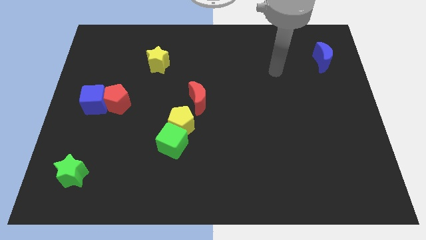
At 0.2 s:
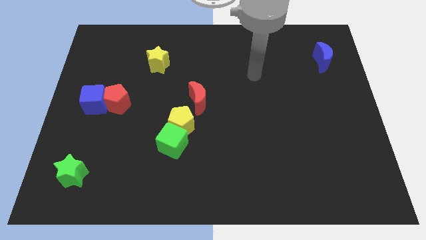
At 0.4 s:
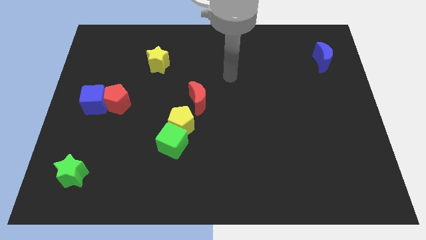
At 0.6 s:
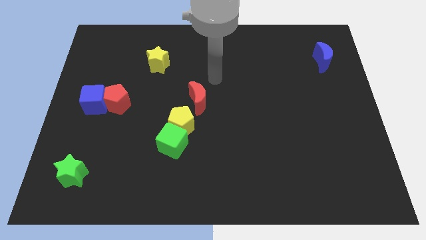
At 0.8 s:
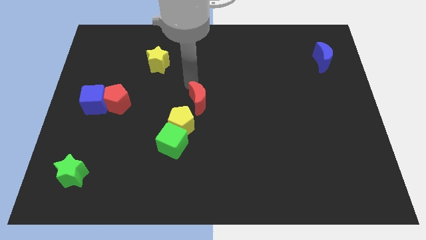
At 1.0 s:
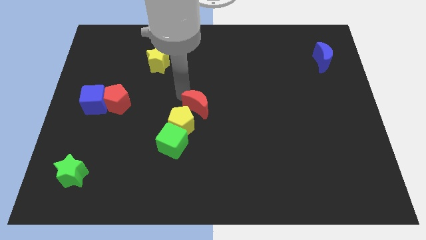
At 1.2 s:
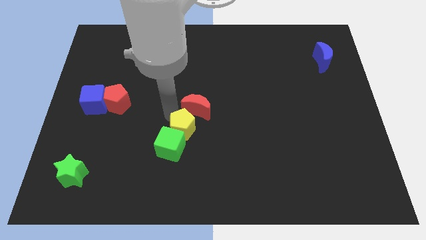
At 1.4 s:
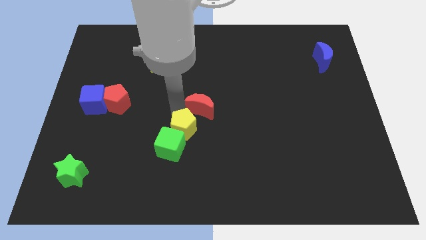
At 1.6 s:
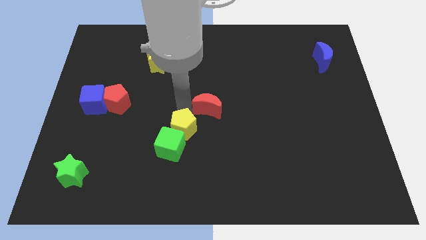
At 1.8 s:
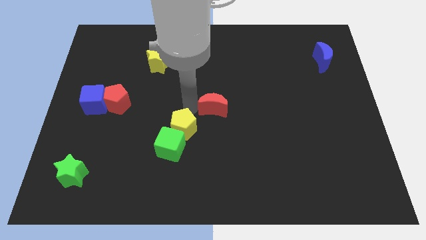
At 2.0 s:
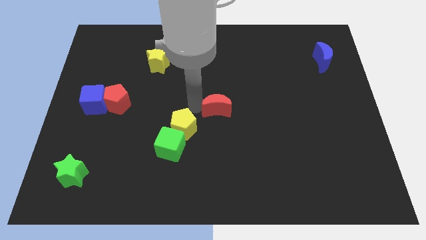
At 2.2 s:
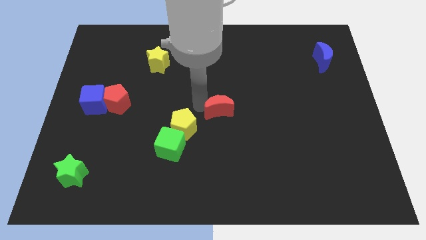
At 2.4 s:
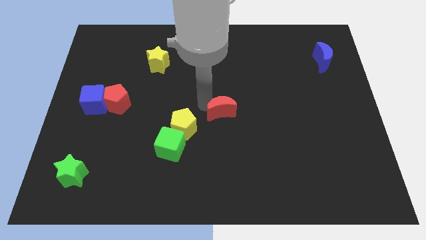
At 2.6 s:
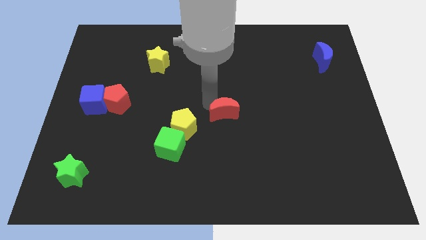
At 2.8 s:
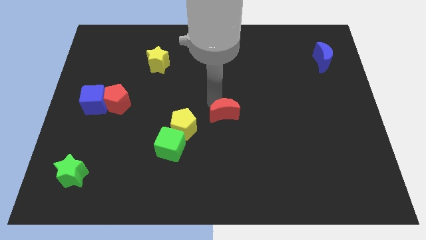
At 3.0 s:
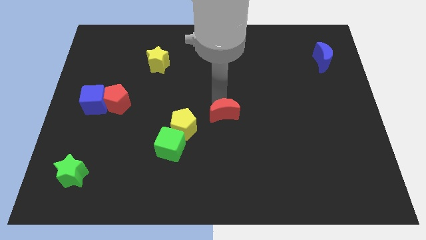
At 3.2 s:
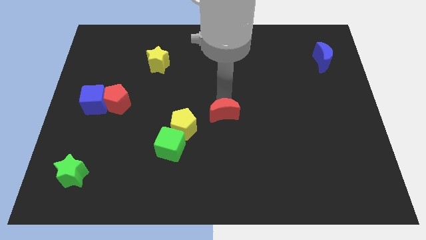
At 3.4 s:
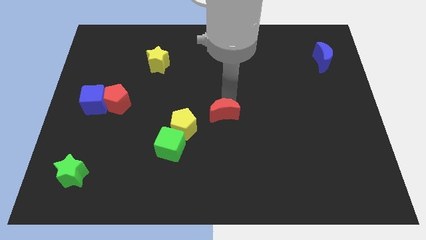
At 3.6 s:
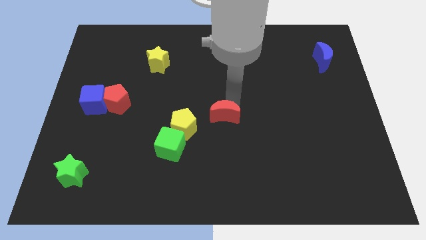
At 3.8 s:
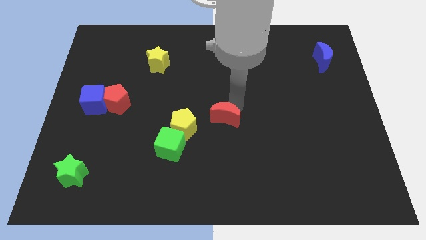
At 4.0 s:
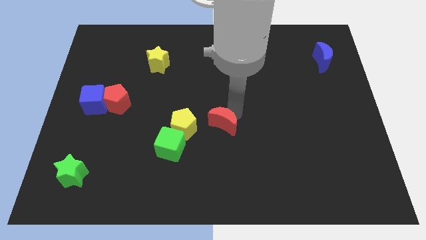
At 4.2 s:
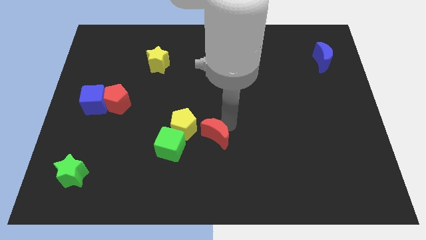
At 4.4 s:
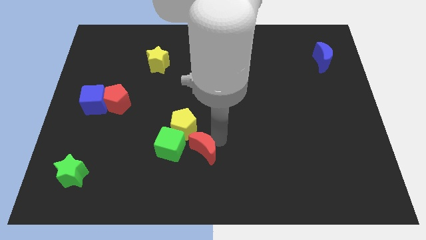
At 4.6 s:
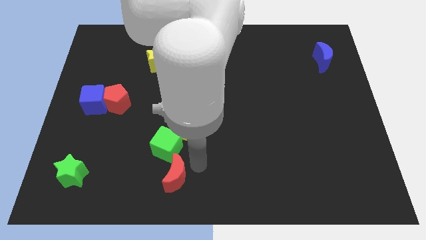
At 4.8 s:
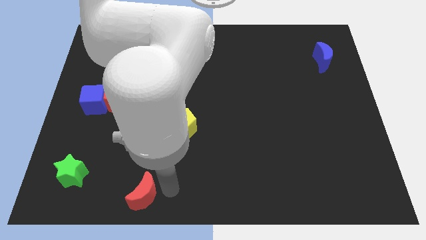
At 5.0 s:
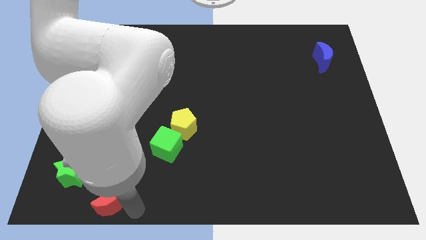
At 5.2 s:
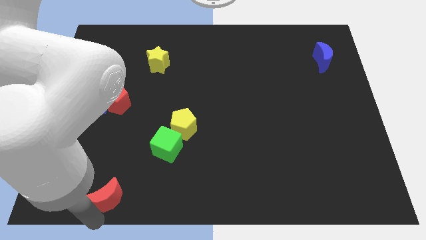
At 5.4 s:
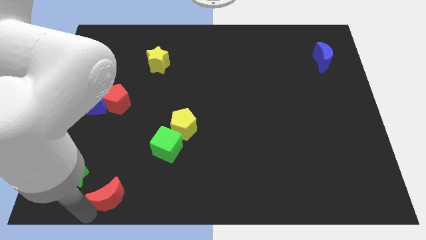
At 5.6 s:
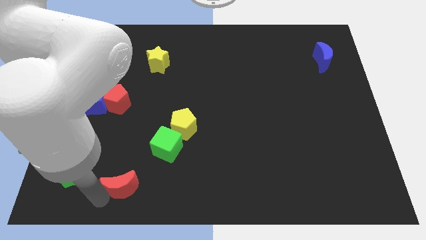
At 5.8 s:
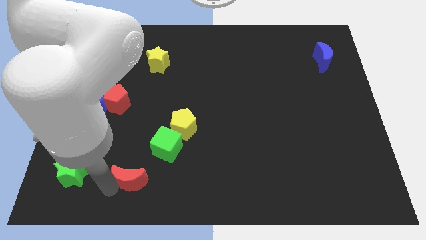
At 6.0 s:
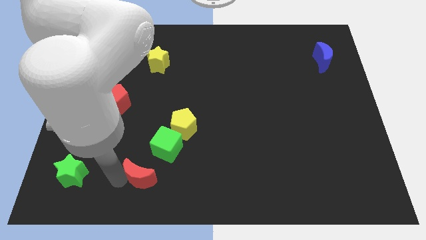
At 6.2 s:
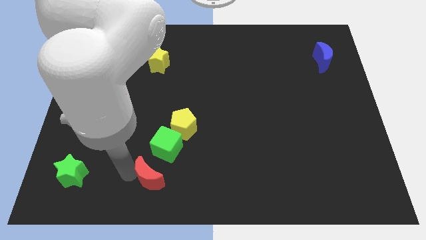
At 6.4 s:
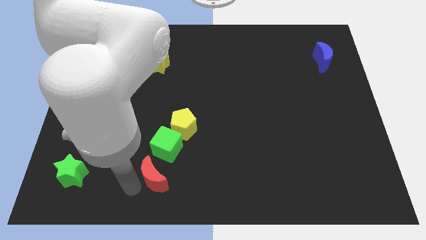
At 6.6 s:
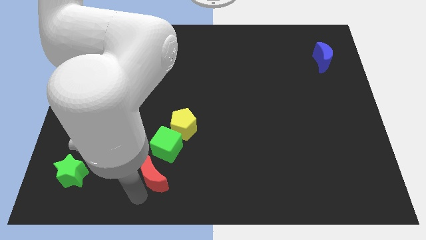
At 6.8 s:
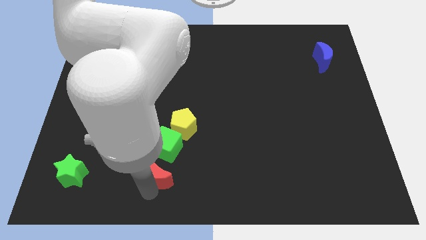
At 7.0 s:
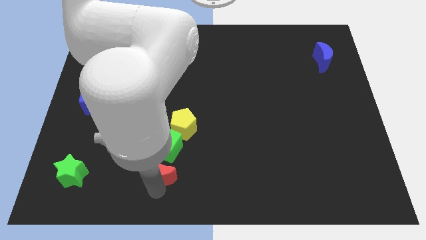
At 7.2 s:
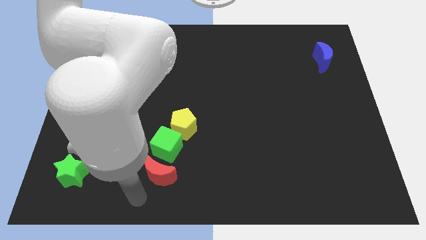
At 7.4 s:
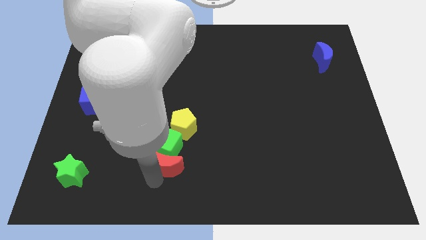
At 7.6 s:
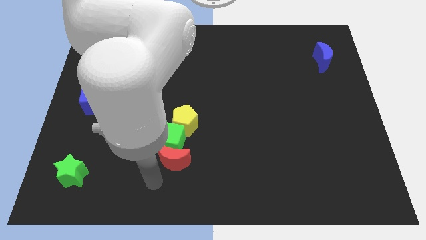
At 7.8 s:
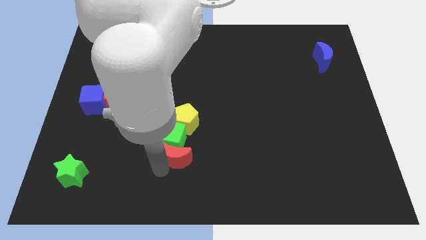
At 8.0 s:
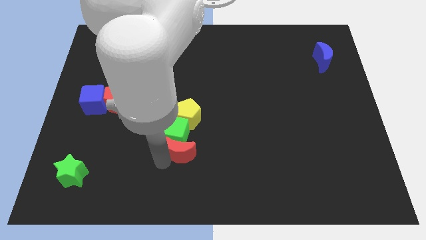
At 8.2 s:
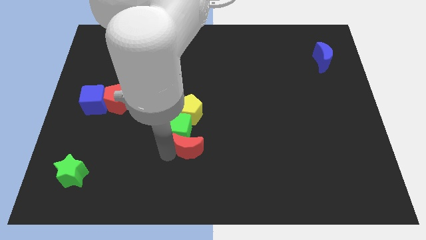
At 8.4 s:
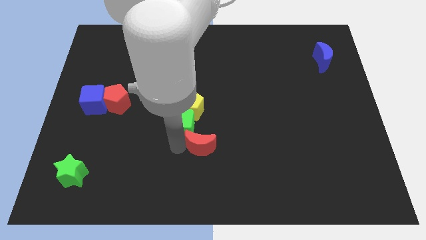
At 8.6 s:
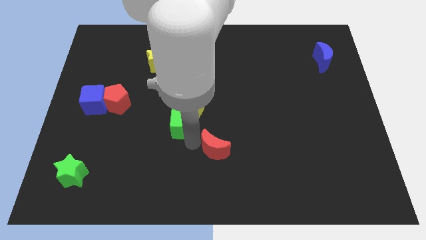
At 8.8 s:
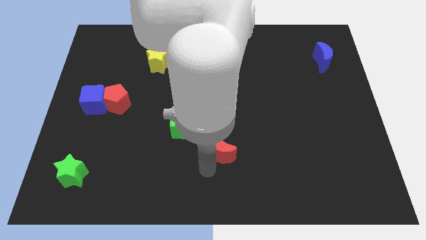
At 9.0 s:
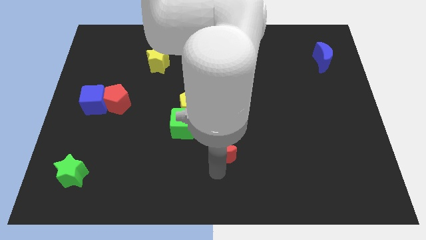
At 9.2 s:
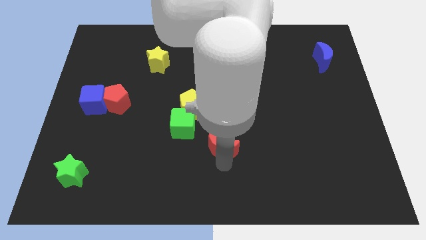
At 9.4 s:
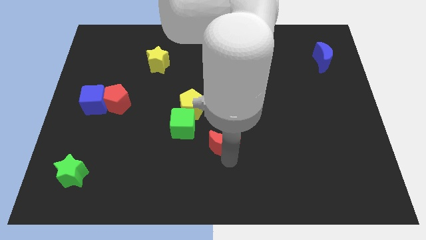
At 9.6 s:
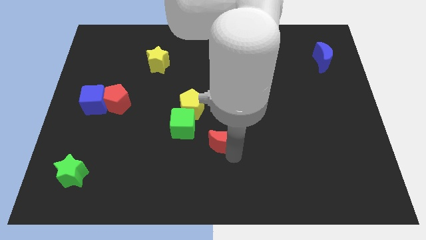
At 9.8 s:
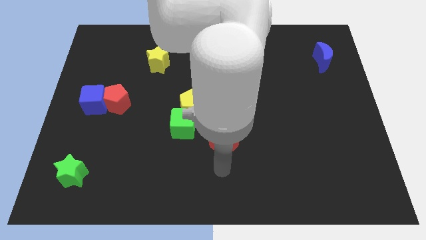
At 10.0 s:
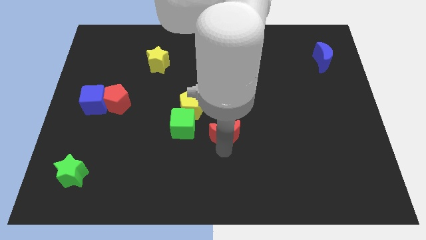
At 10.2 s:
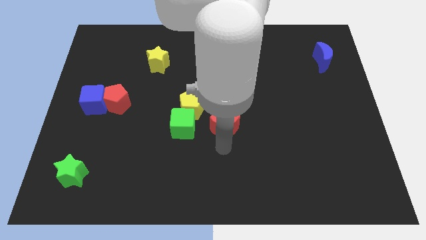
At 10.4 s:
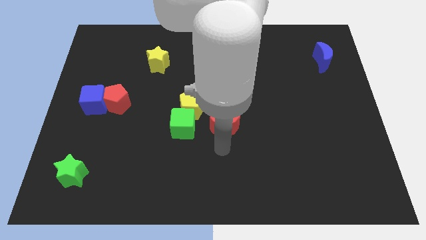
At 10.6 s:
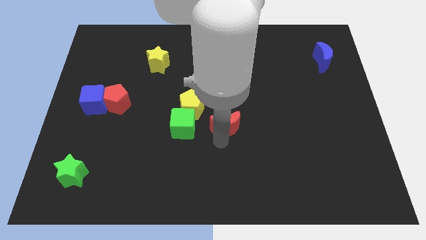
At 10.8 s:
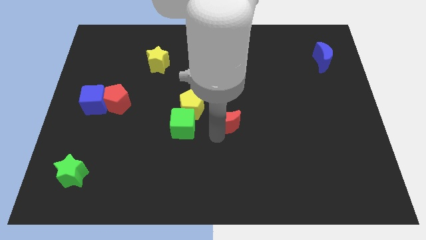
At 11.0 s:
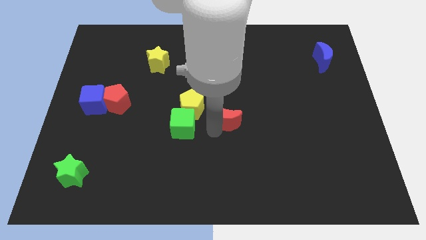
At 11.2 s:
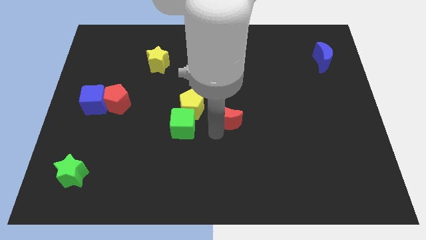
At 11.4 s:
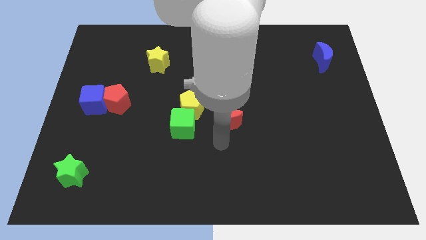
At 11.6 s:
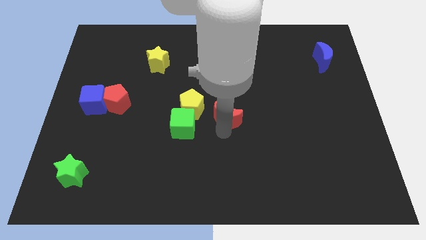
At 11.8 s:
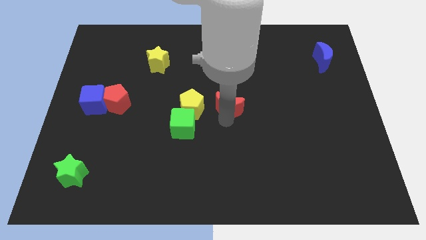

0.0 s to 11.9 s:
push the red moon to the right a little bit

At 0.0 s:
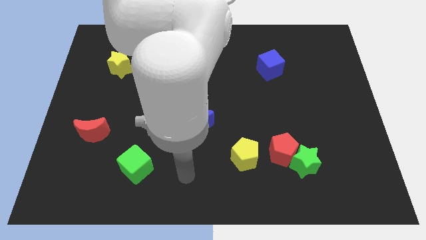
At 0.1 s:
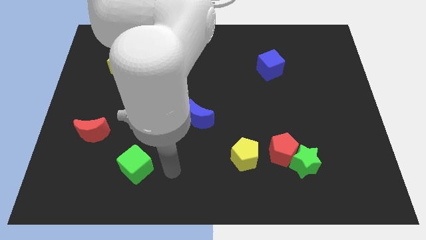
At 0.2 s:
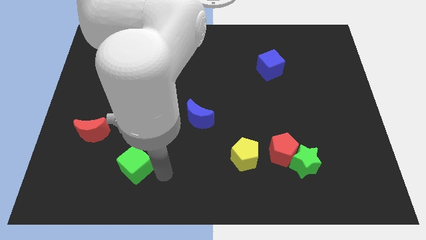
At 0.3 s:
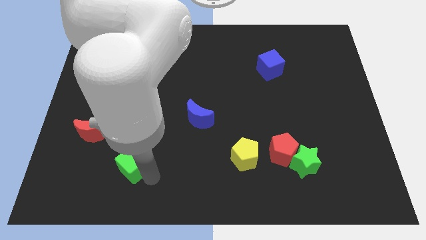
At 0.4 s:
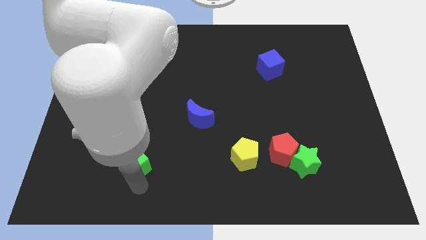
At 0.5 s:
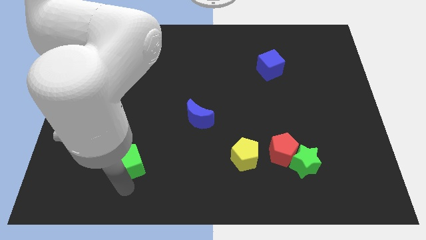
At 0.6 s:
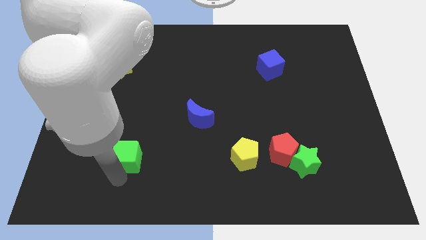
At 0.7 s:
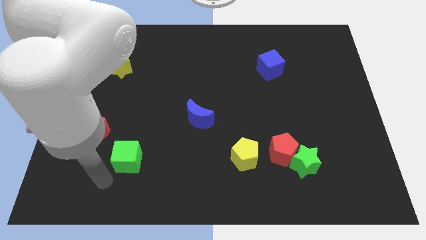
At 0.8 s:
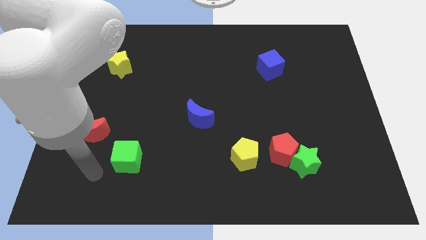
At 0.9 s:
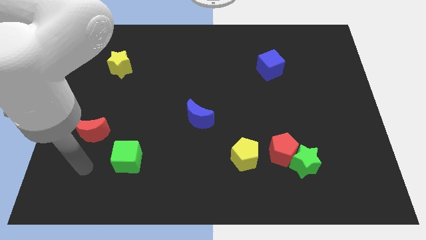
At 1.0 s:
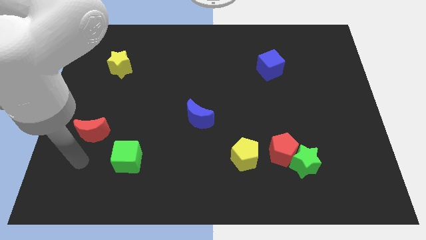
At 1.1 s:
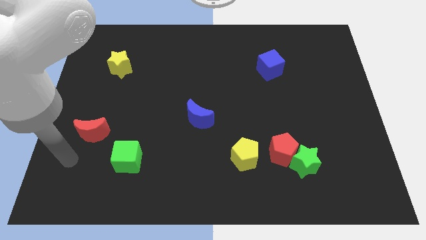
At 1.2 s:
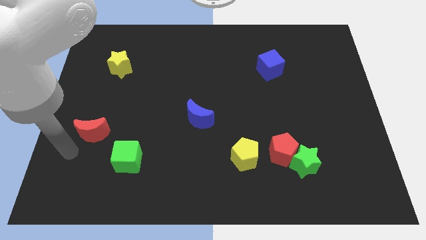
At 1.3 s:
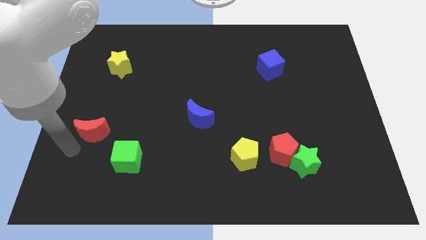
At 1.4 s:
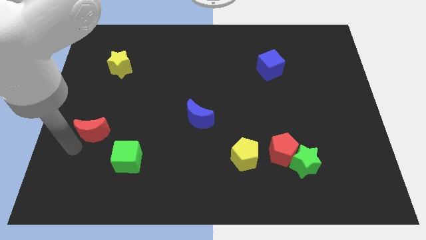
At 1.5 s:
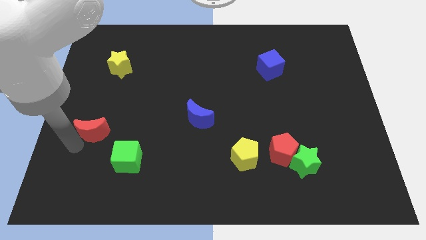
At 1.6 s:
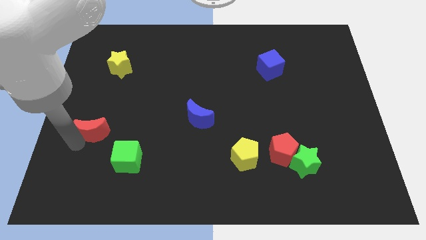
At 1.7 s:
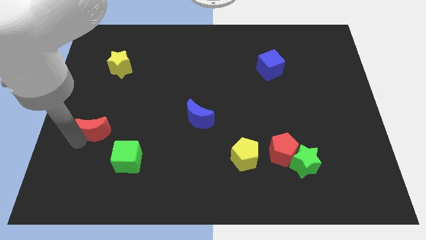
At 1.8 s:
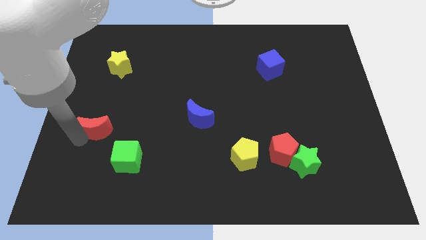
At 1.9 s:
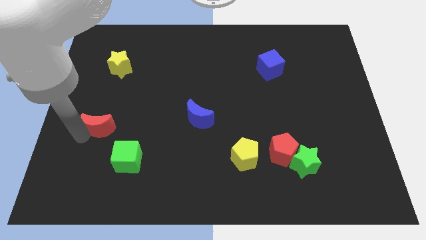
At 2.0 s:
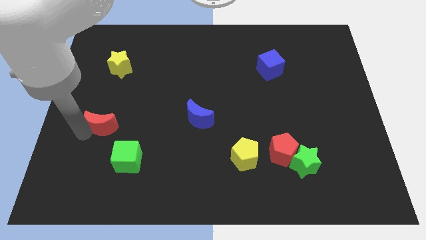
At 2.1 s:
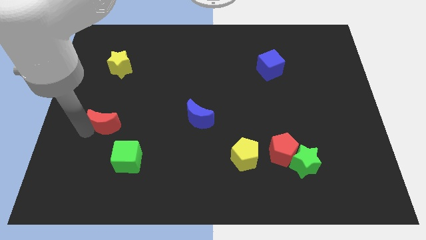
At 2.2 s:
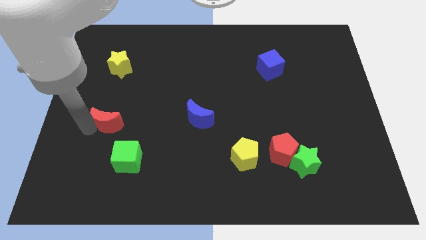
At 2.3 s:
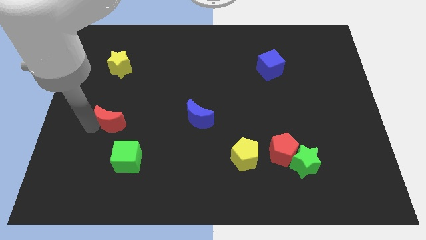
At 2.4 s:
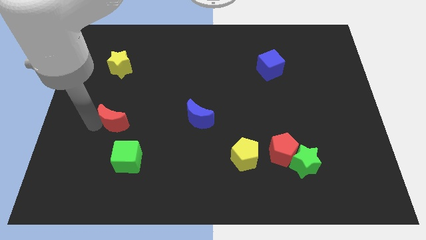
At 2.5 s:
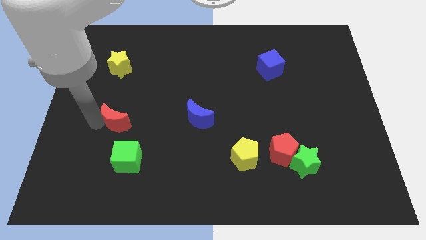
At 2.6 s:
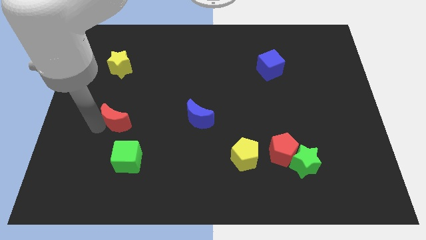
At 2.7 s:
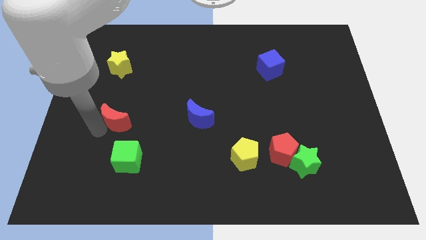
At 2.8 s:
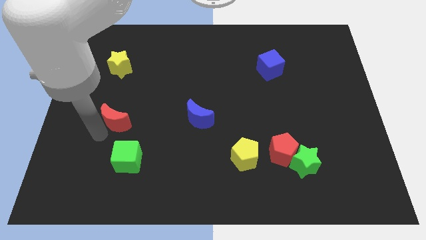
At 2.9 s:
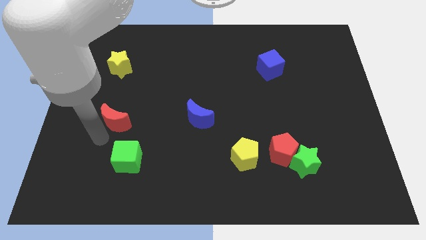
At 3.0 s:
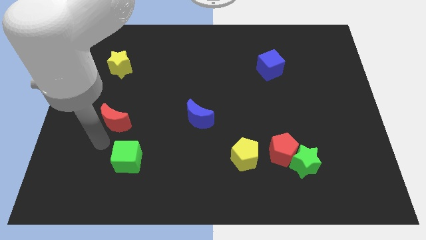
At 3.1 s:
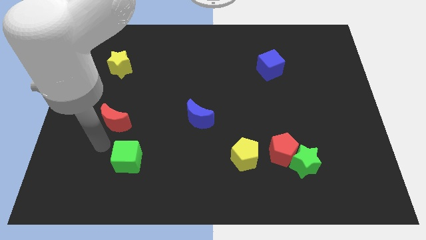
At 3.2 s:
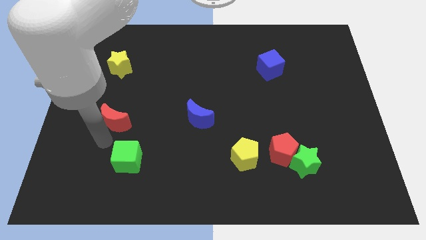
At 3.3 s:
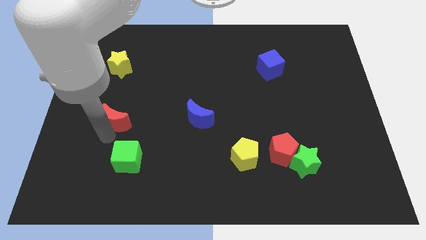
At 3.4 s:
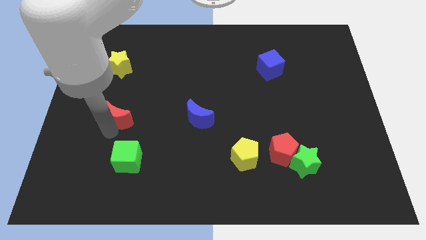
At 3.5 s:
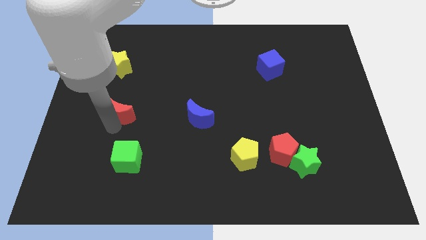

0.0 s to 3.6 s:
slide the red moon slightly up and to the right
